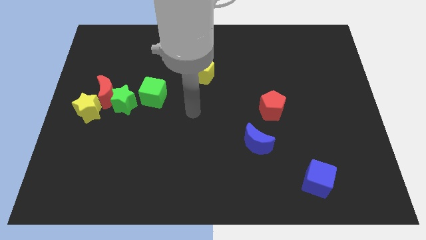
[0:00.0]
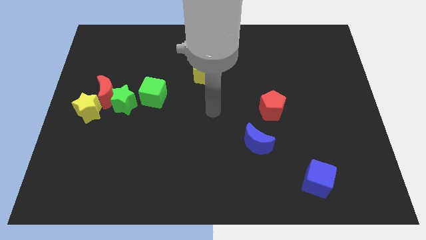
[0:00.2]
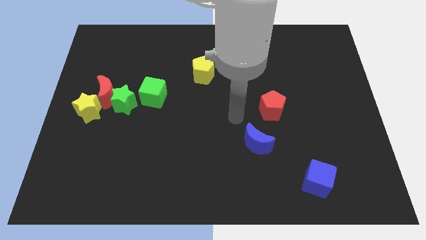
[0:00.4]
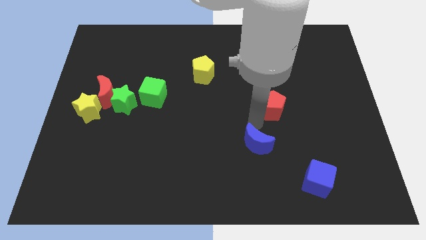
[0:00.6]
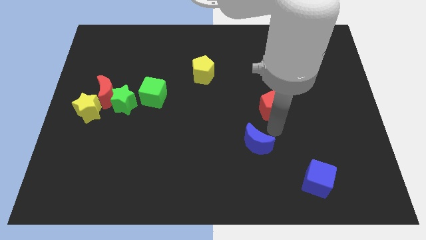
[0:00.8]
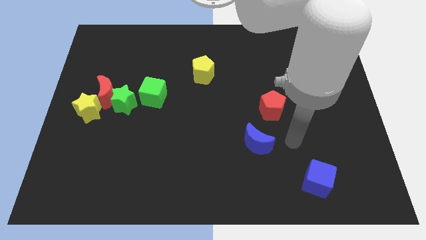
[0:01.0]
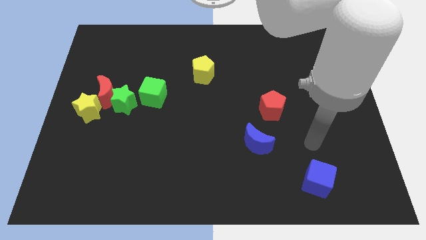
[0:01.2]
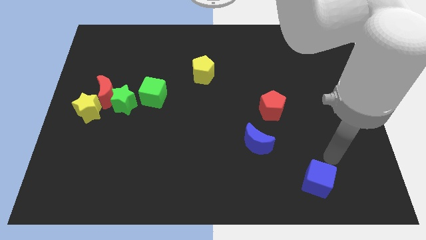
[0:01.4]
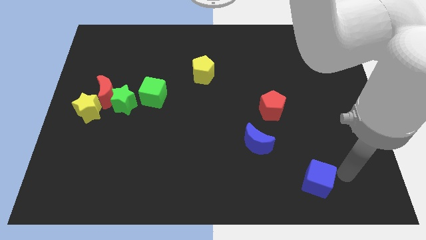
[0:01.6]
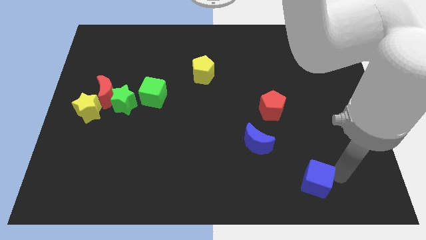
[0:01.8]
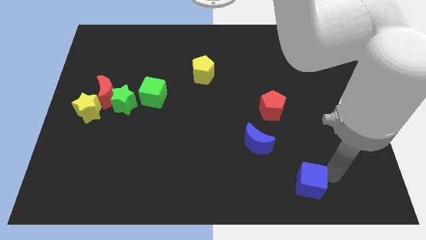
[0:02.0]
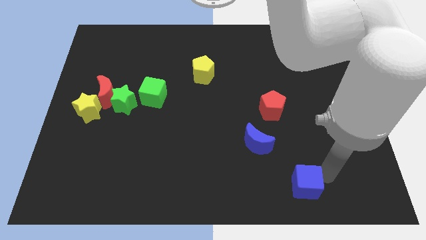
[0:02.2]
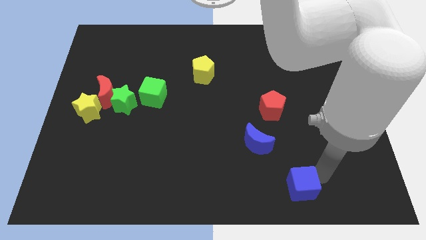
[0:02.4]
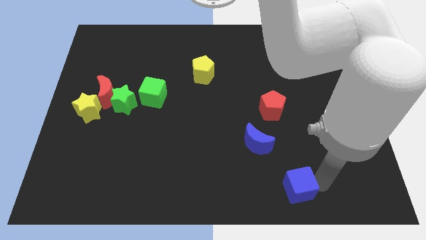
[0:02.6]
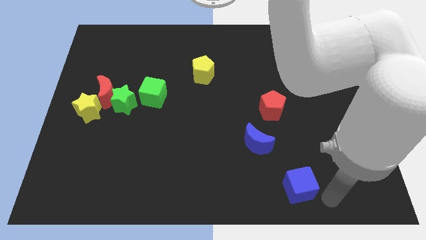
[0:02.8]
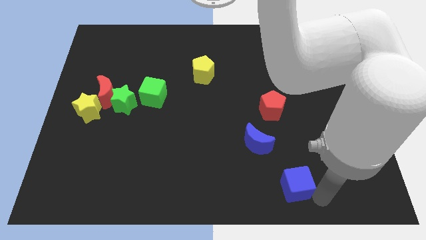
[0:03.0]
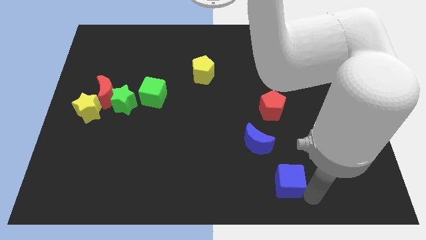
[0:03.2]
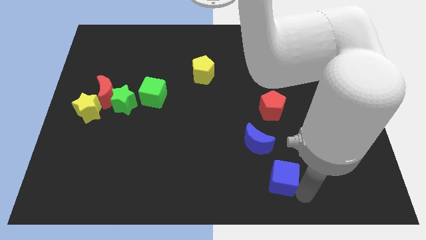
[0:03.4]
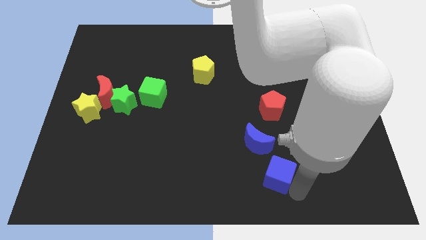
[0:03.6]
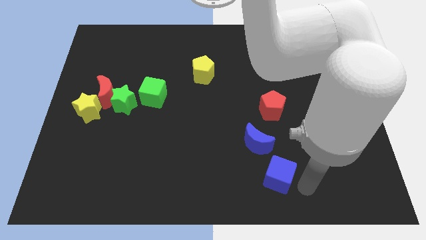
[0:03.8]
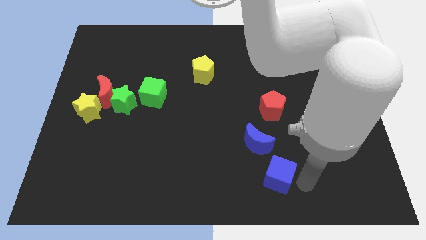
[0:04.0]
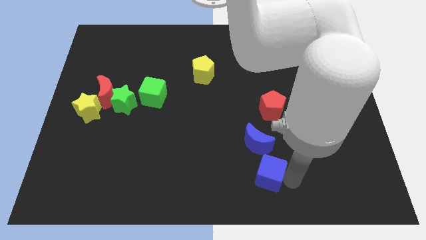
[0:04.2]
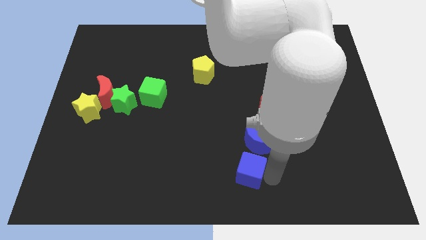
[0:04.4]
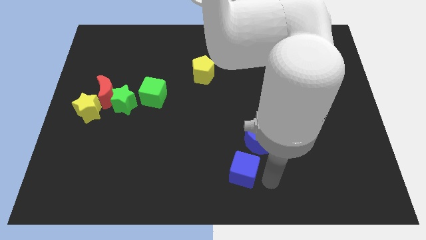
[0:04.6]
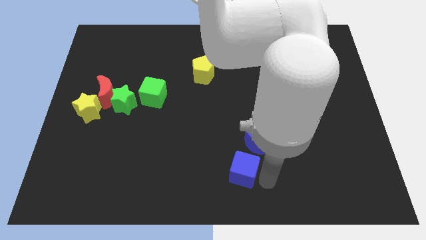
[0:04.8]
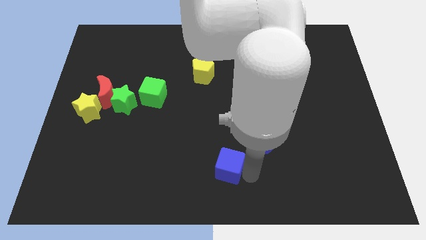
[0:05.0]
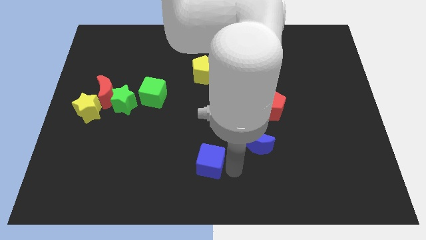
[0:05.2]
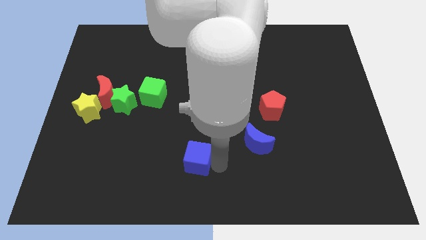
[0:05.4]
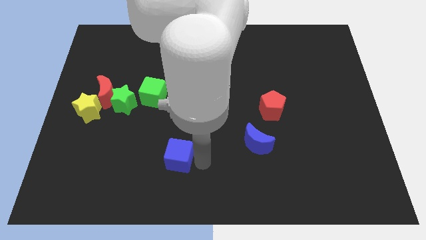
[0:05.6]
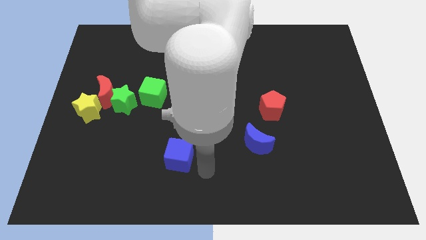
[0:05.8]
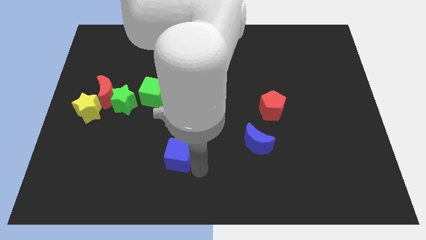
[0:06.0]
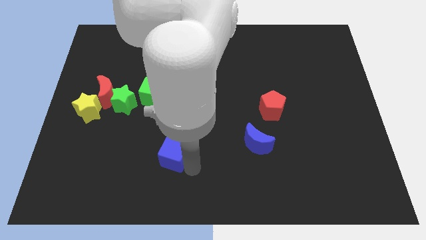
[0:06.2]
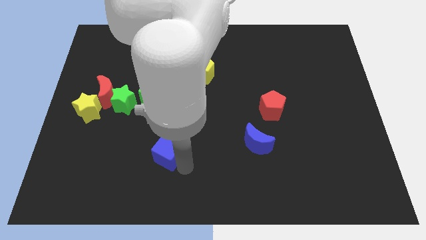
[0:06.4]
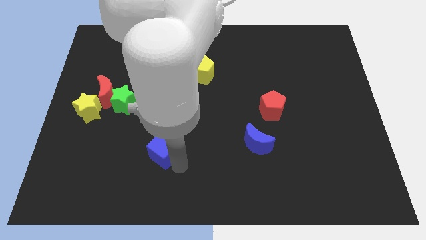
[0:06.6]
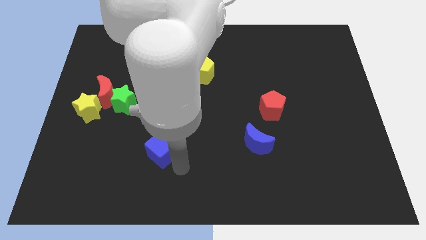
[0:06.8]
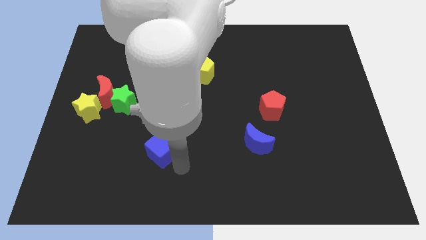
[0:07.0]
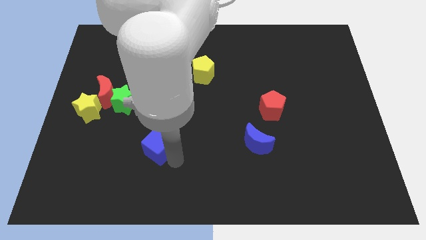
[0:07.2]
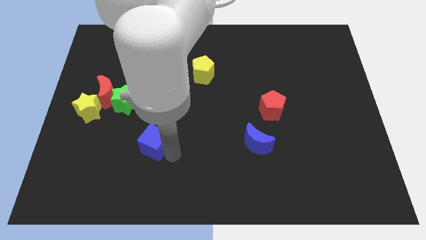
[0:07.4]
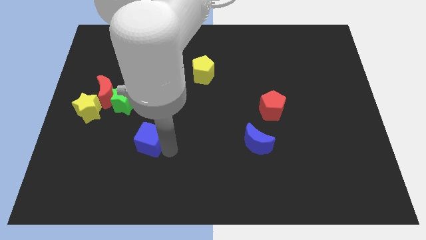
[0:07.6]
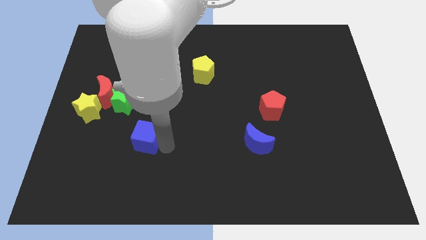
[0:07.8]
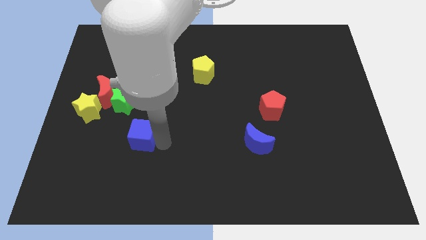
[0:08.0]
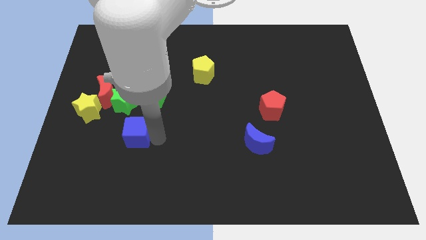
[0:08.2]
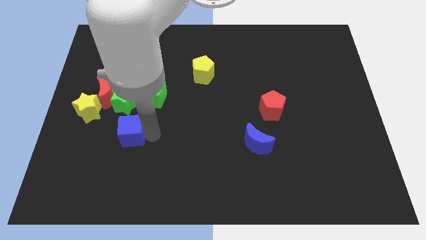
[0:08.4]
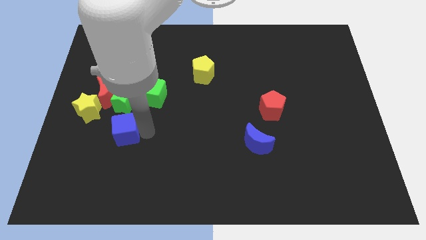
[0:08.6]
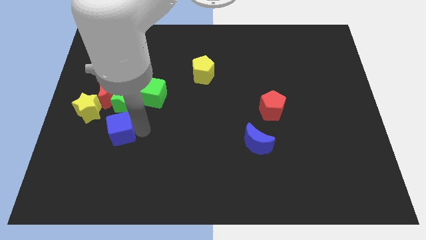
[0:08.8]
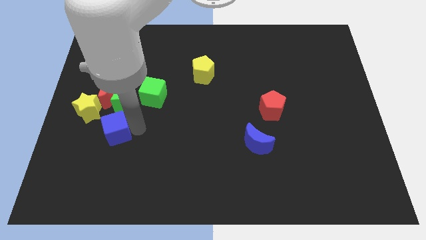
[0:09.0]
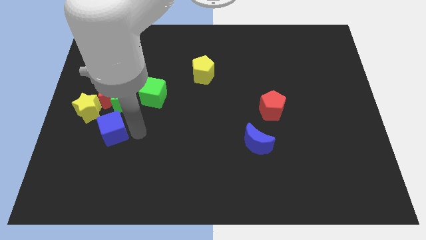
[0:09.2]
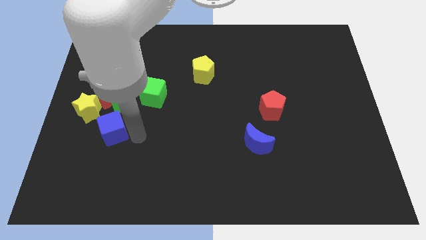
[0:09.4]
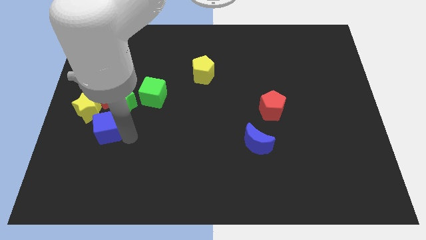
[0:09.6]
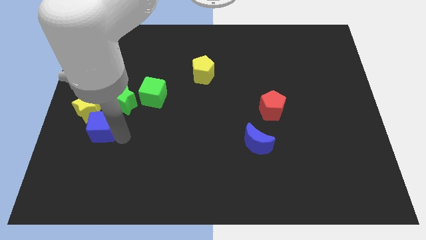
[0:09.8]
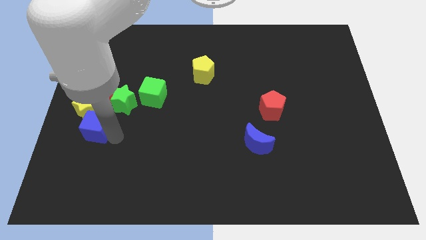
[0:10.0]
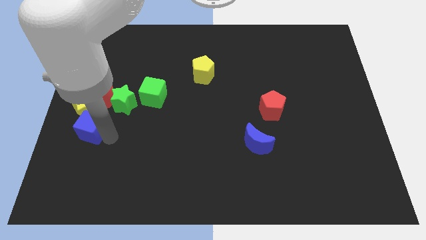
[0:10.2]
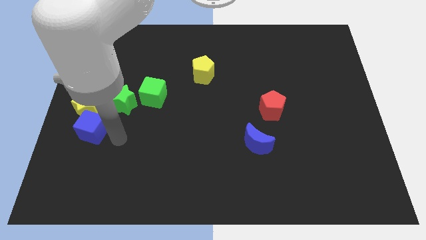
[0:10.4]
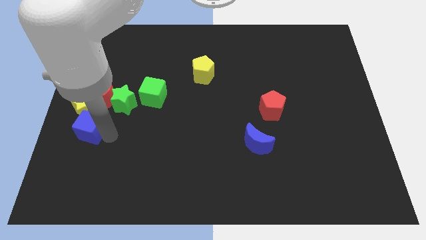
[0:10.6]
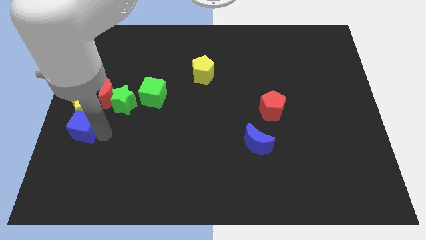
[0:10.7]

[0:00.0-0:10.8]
put the blue cube to the center left

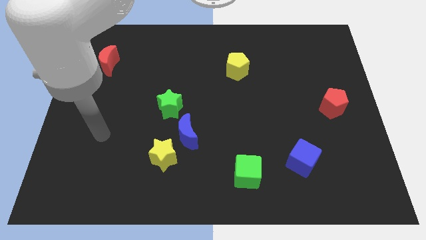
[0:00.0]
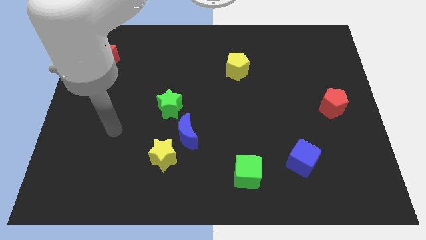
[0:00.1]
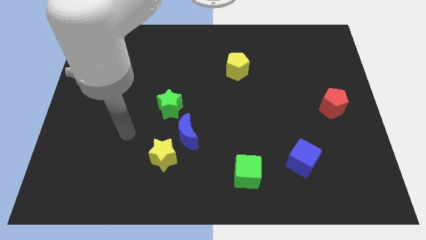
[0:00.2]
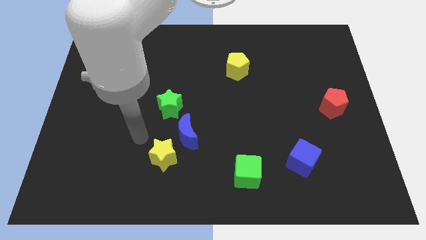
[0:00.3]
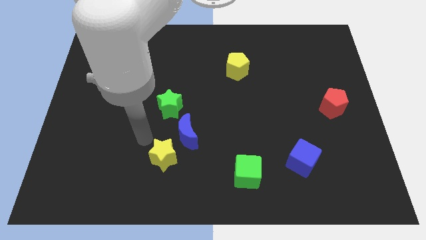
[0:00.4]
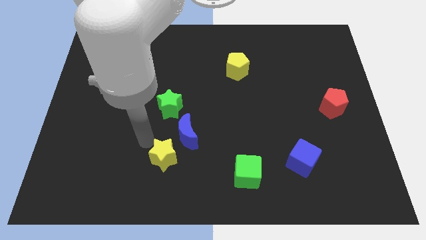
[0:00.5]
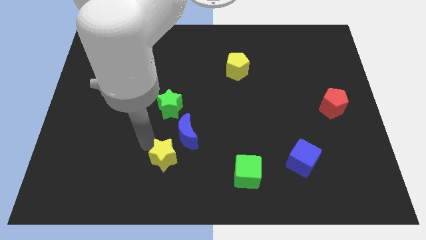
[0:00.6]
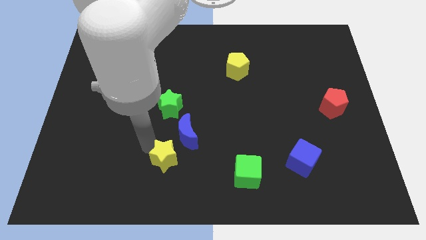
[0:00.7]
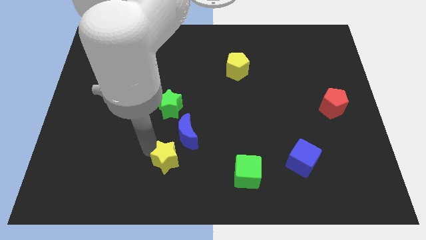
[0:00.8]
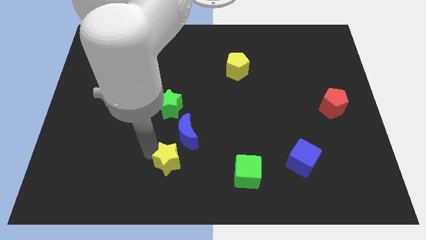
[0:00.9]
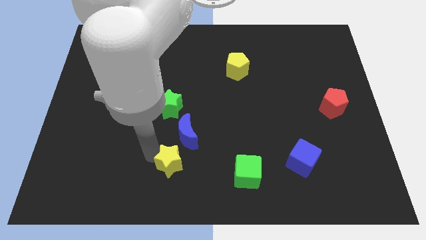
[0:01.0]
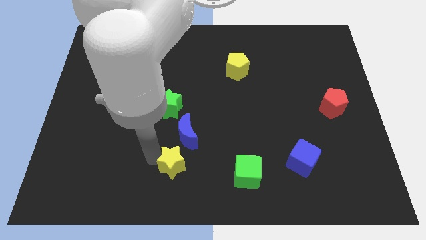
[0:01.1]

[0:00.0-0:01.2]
move the yellow star to the bottom side

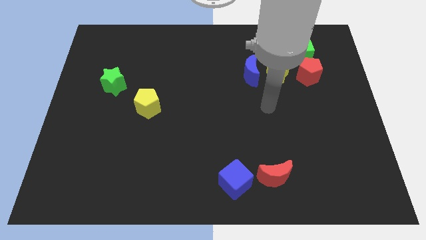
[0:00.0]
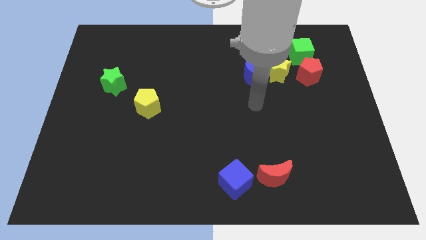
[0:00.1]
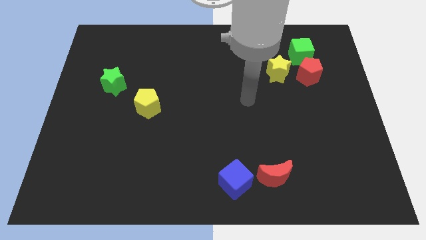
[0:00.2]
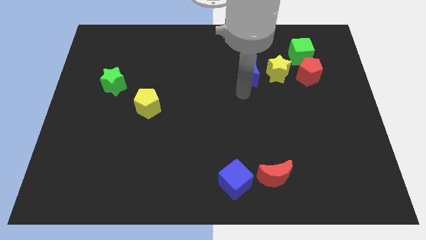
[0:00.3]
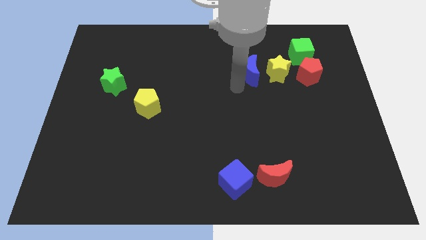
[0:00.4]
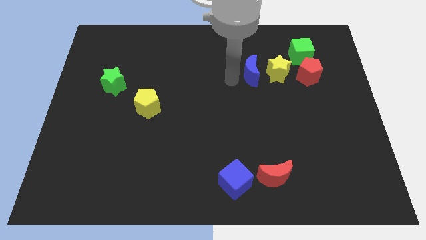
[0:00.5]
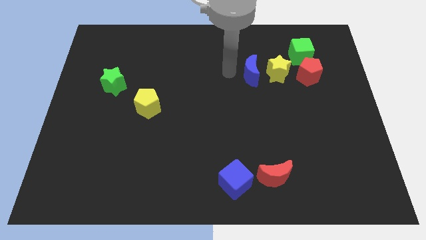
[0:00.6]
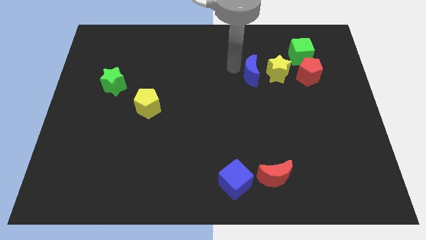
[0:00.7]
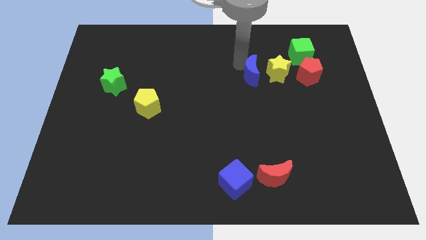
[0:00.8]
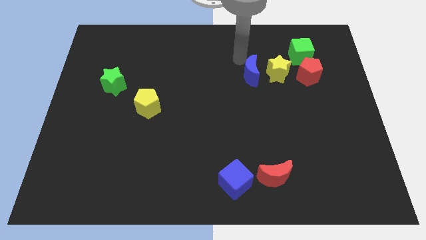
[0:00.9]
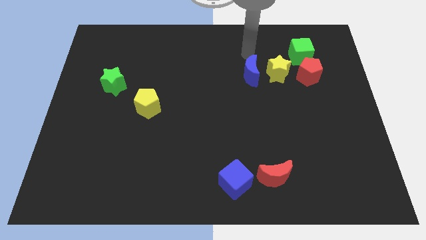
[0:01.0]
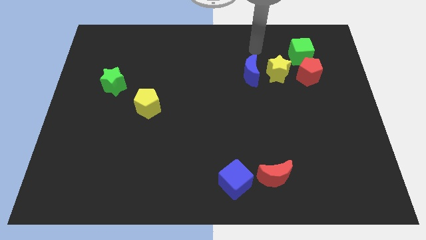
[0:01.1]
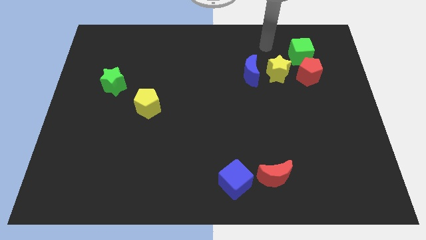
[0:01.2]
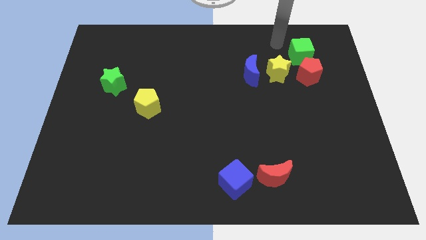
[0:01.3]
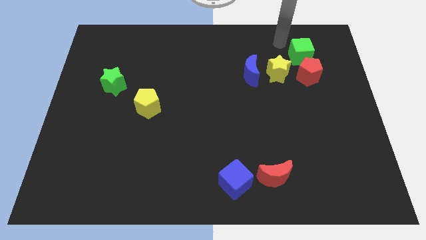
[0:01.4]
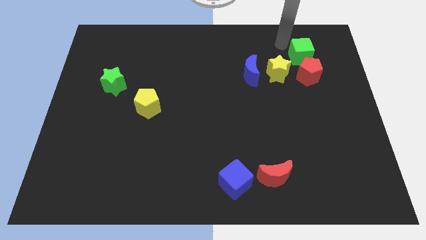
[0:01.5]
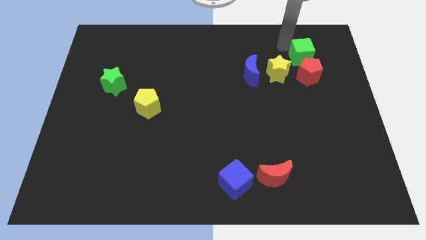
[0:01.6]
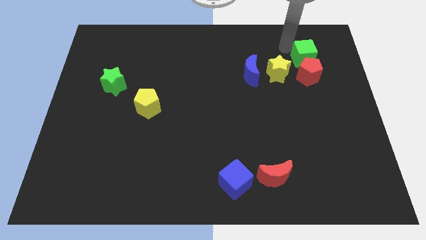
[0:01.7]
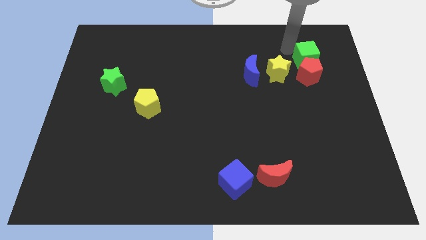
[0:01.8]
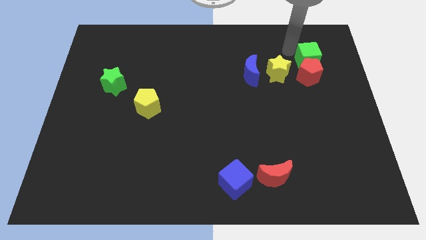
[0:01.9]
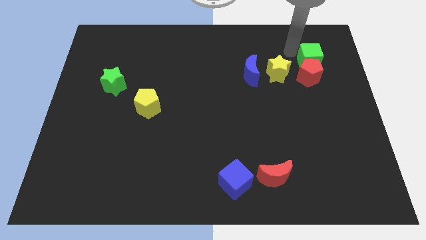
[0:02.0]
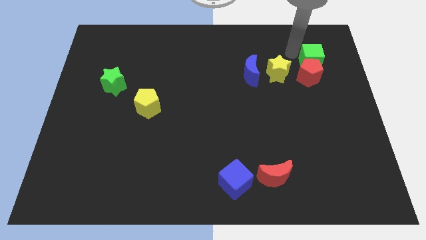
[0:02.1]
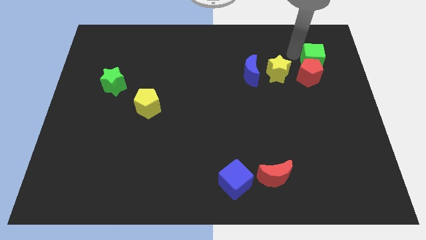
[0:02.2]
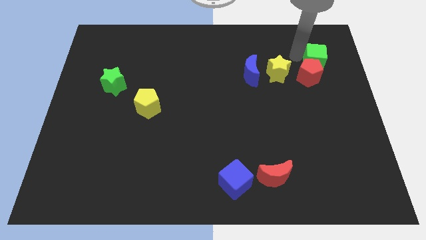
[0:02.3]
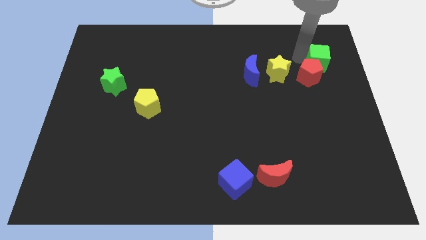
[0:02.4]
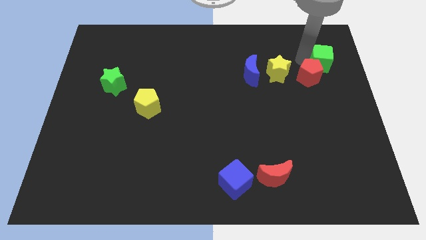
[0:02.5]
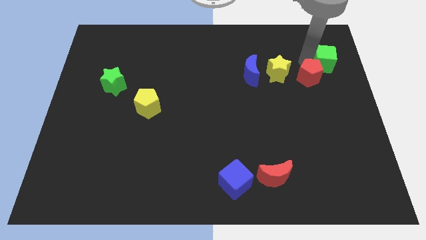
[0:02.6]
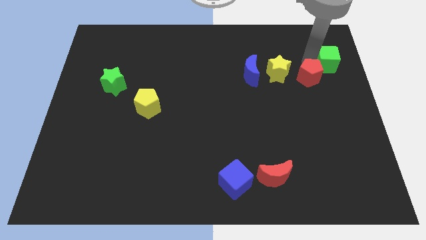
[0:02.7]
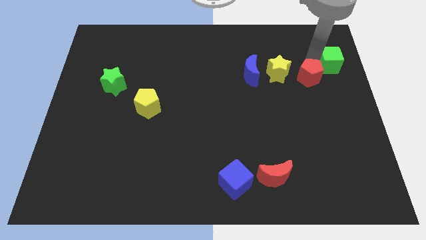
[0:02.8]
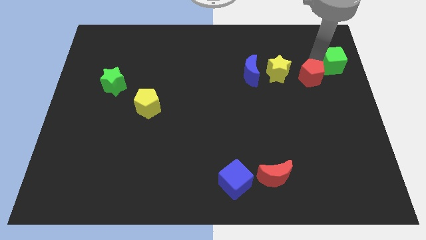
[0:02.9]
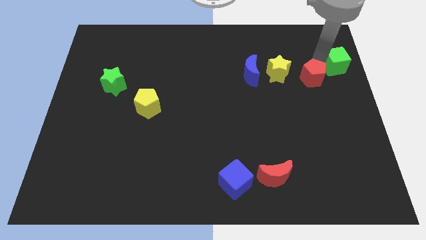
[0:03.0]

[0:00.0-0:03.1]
put the green cube to the center right
